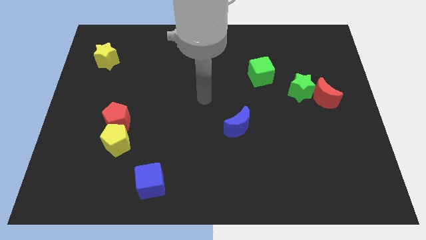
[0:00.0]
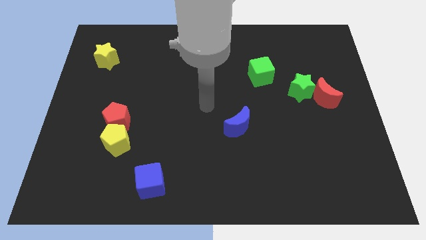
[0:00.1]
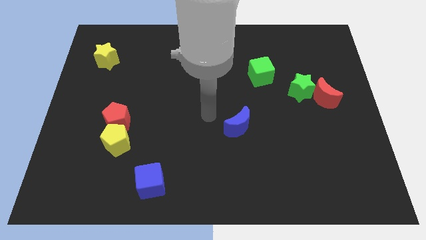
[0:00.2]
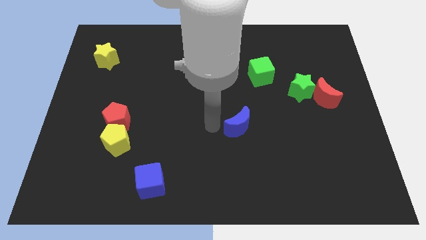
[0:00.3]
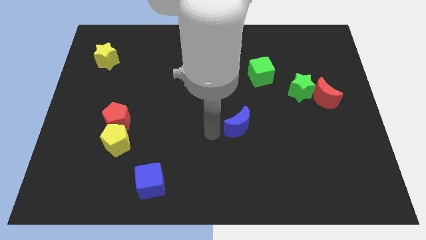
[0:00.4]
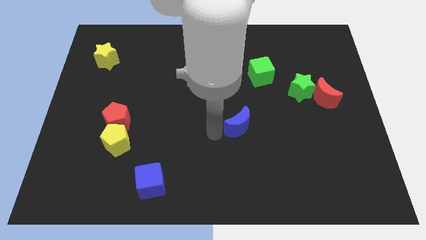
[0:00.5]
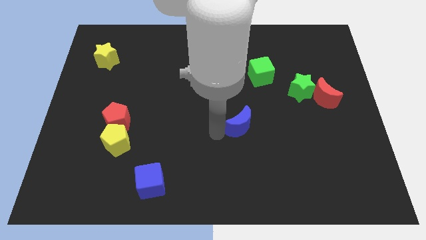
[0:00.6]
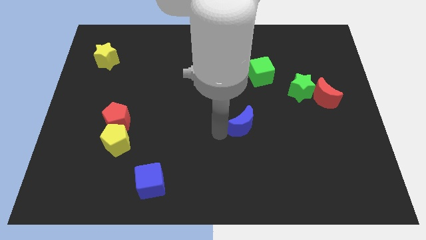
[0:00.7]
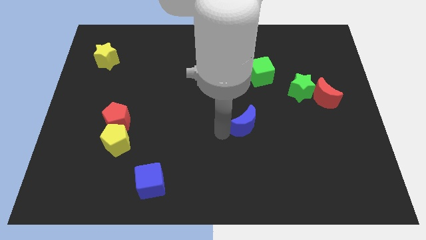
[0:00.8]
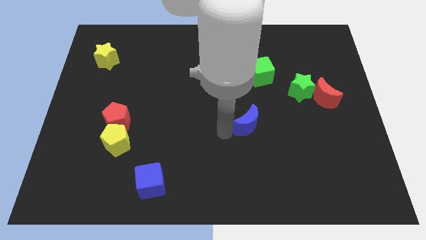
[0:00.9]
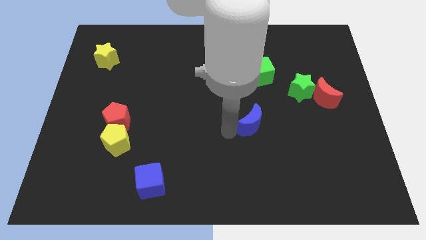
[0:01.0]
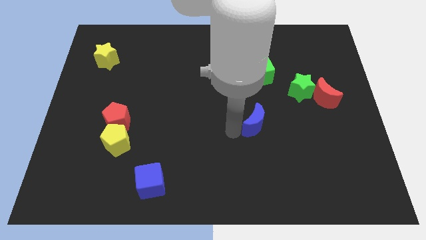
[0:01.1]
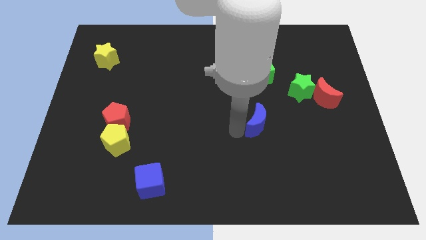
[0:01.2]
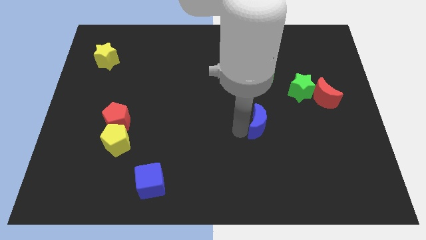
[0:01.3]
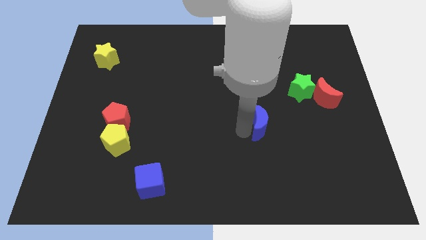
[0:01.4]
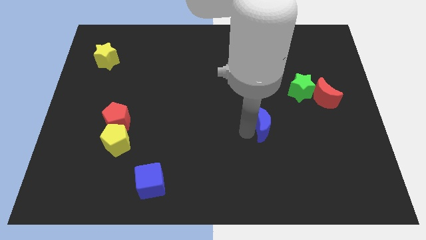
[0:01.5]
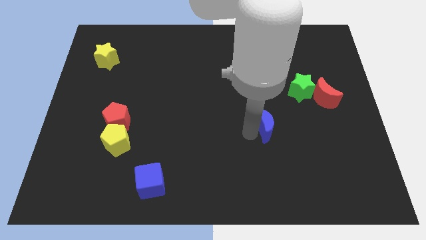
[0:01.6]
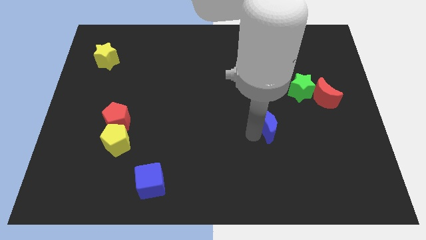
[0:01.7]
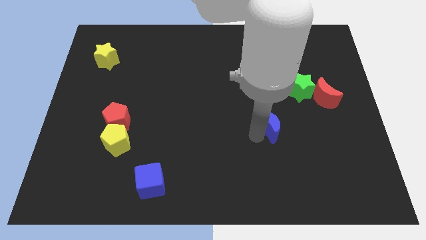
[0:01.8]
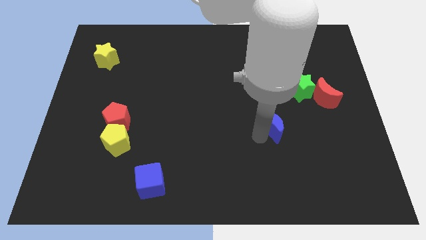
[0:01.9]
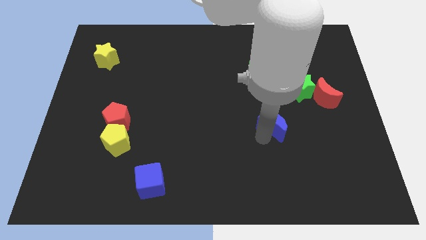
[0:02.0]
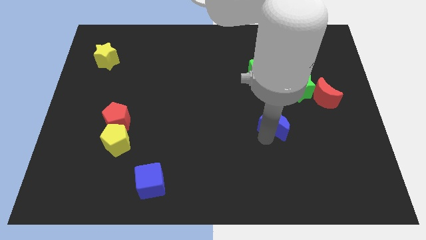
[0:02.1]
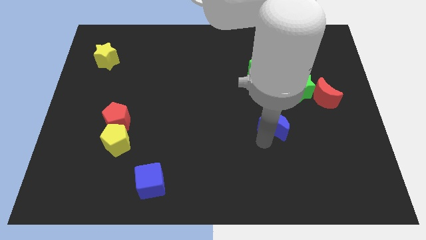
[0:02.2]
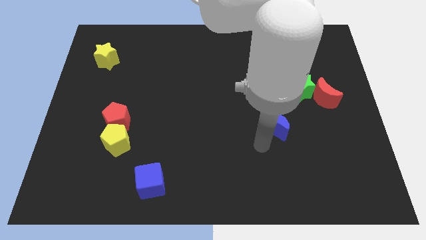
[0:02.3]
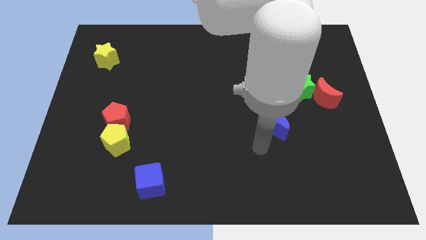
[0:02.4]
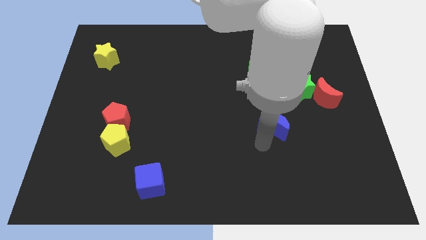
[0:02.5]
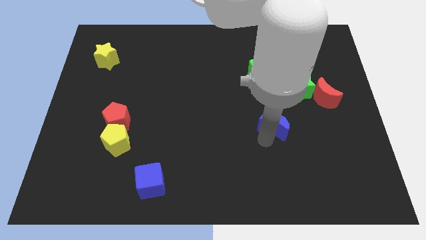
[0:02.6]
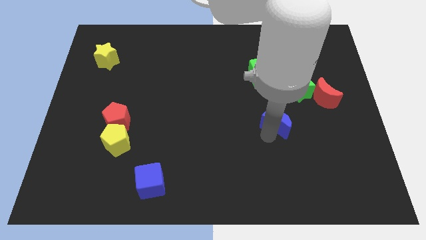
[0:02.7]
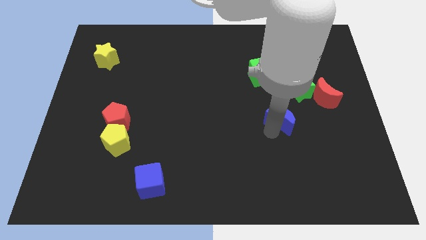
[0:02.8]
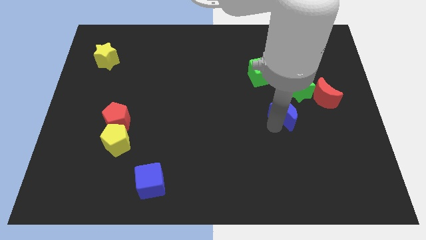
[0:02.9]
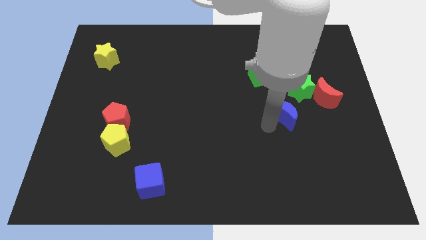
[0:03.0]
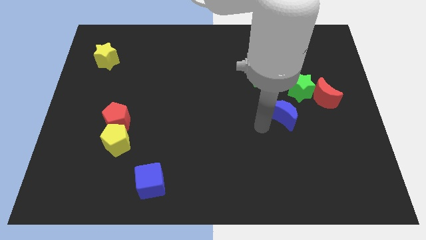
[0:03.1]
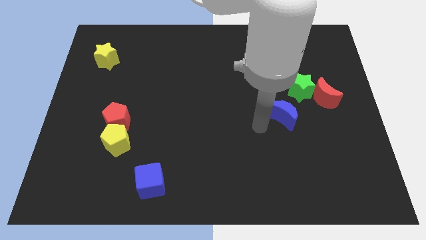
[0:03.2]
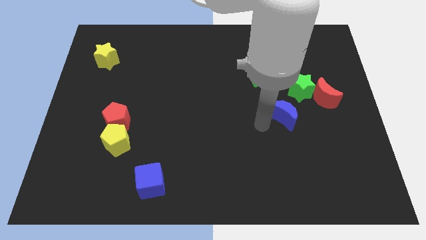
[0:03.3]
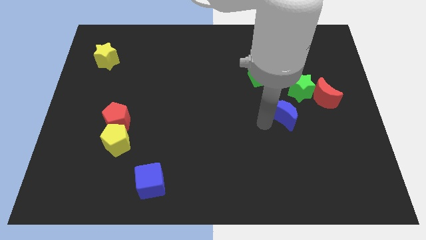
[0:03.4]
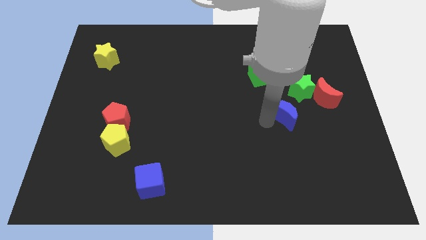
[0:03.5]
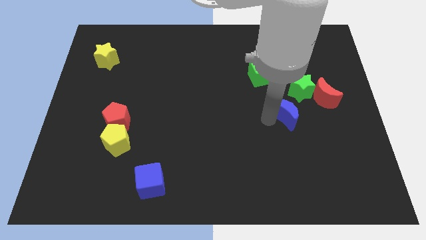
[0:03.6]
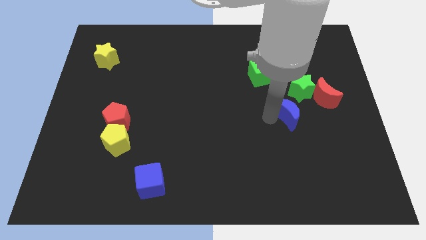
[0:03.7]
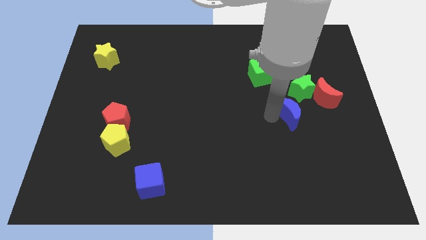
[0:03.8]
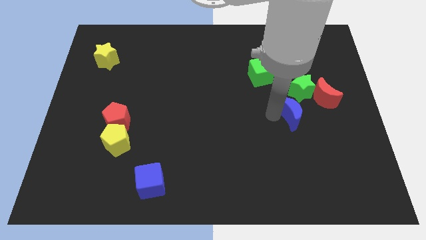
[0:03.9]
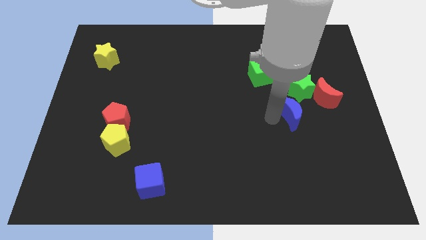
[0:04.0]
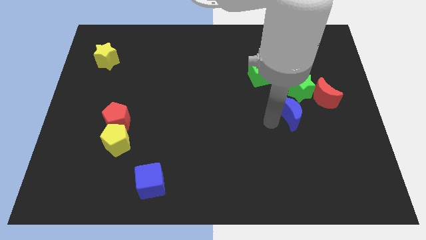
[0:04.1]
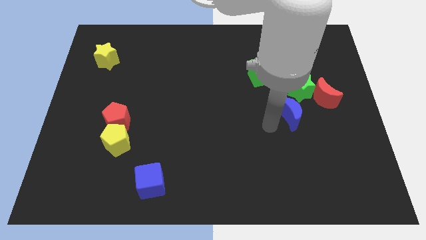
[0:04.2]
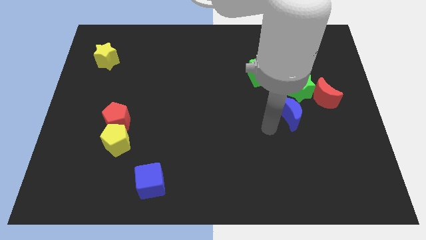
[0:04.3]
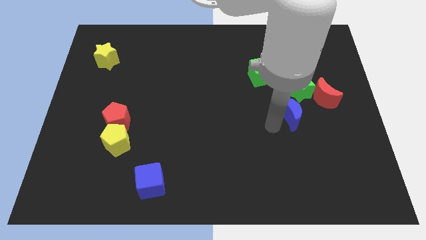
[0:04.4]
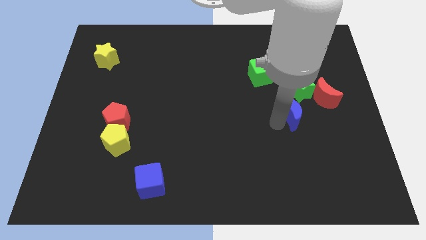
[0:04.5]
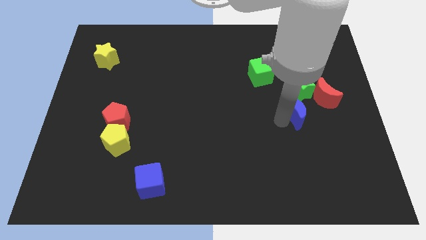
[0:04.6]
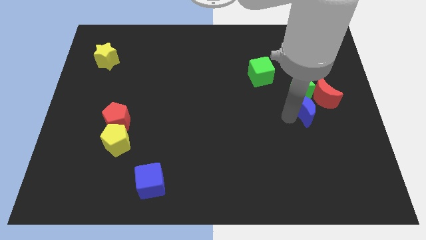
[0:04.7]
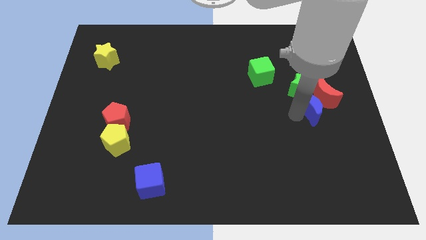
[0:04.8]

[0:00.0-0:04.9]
push the blue moon towards the red moon

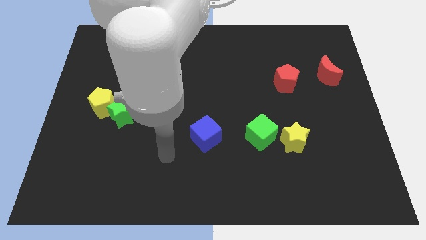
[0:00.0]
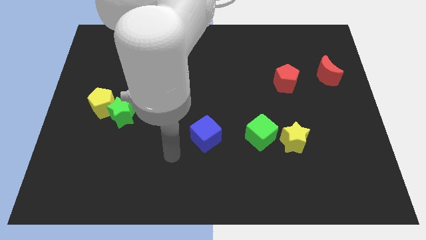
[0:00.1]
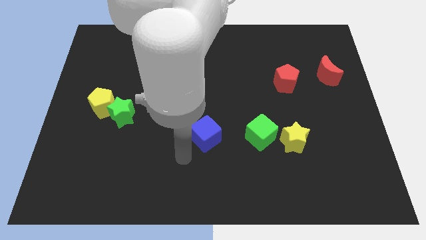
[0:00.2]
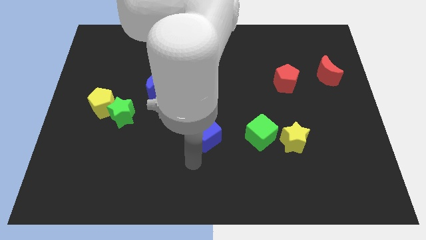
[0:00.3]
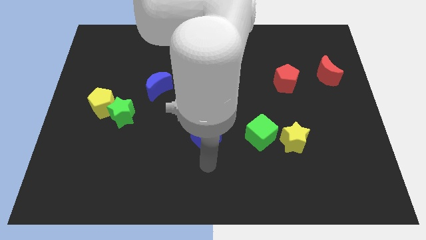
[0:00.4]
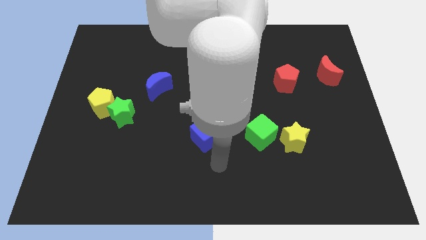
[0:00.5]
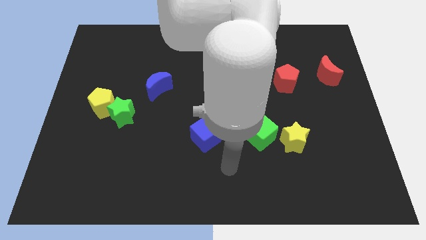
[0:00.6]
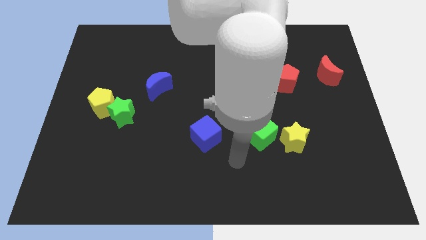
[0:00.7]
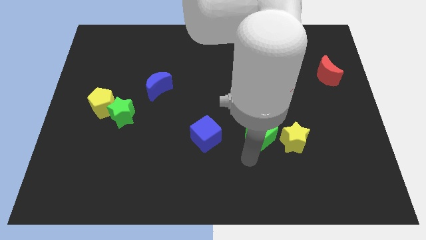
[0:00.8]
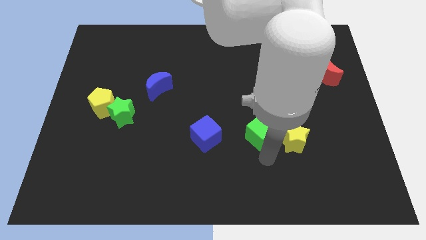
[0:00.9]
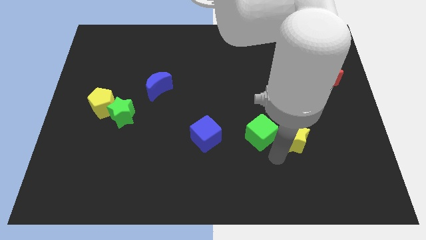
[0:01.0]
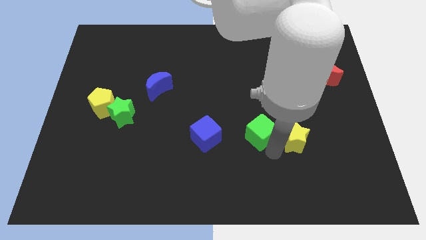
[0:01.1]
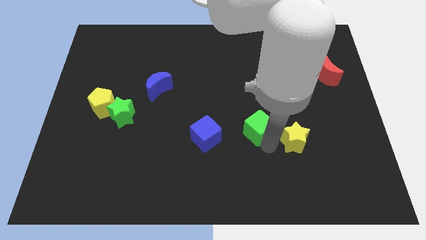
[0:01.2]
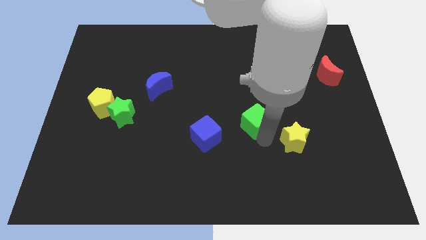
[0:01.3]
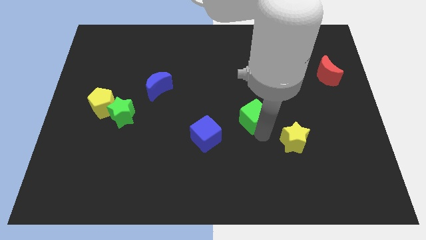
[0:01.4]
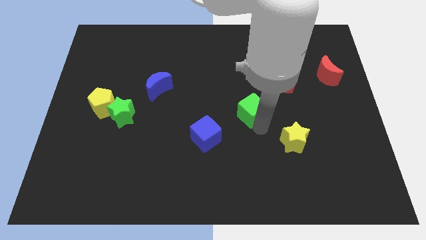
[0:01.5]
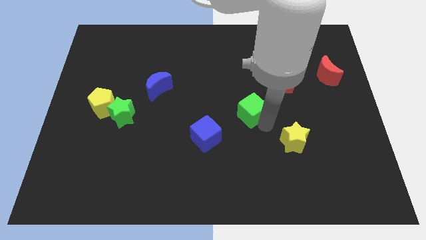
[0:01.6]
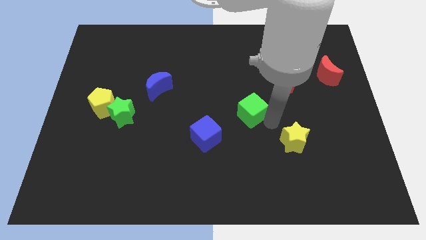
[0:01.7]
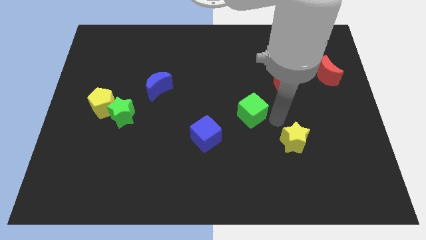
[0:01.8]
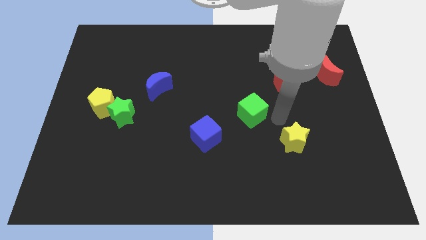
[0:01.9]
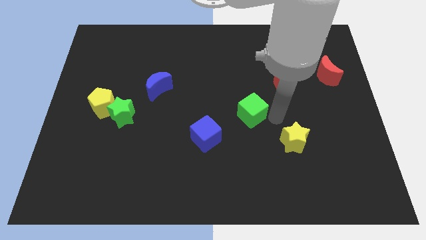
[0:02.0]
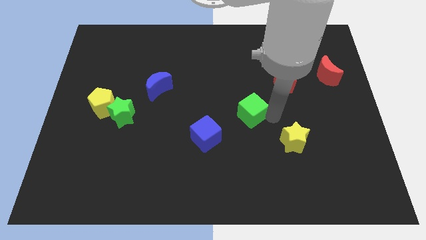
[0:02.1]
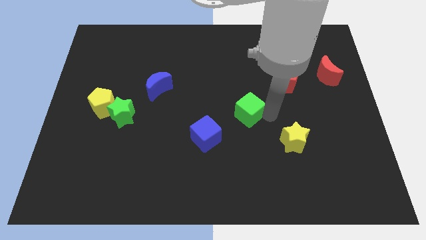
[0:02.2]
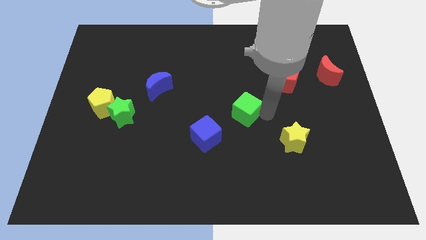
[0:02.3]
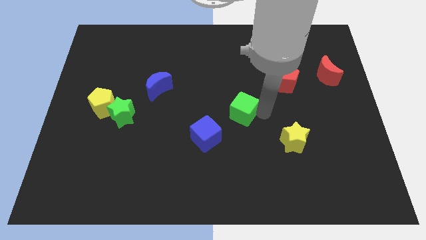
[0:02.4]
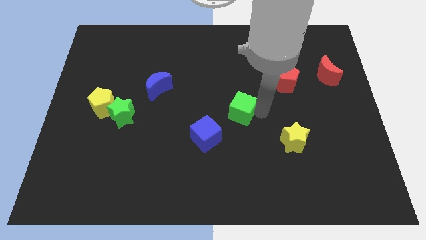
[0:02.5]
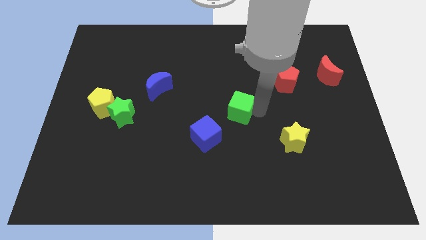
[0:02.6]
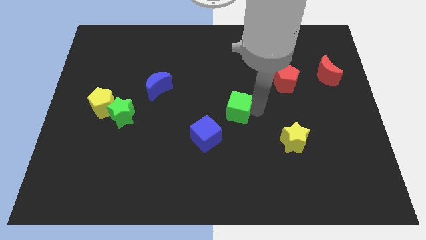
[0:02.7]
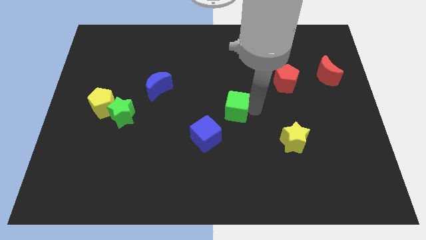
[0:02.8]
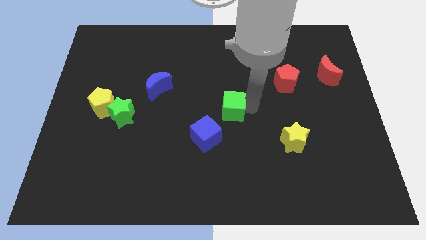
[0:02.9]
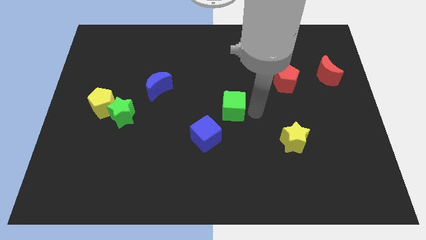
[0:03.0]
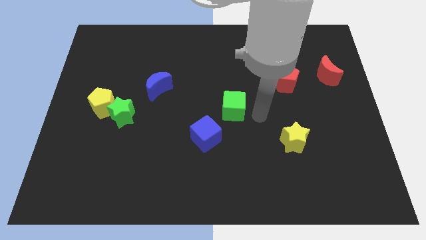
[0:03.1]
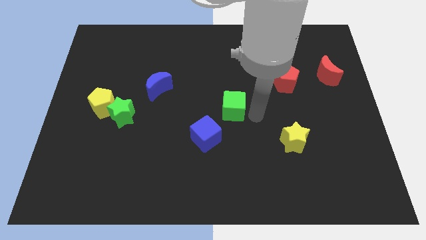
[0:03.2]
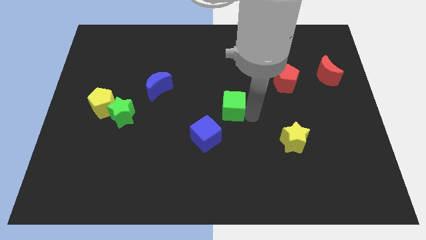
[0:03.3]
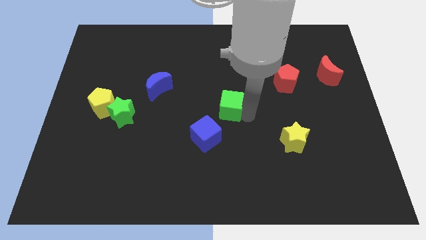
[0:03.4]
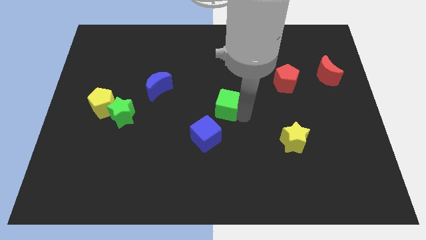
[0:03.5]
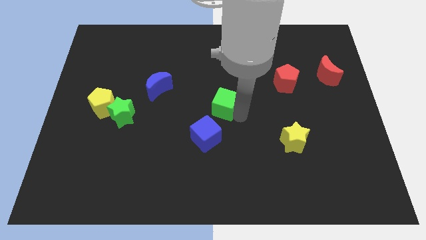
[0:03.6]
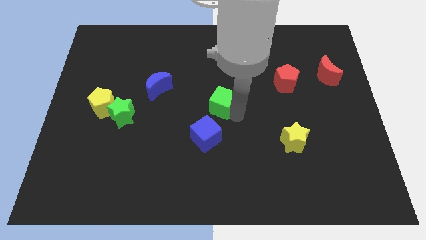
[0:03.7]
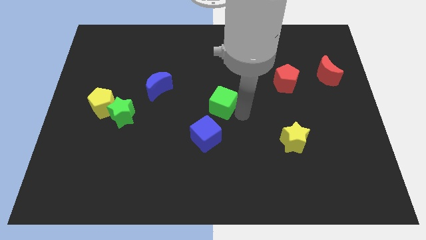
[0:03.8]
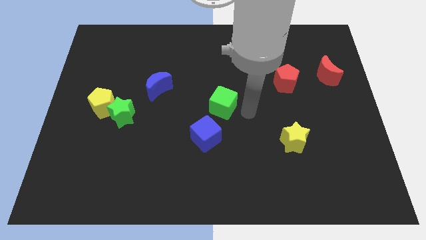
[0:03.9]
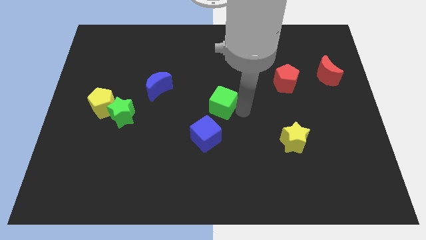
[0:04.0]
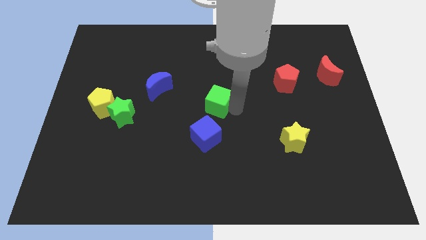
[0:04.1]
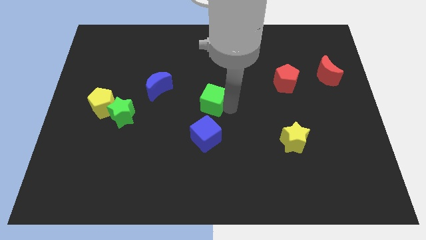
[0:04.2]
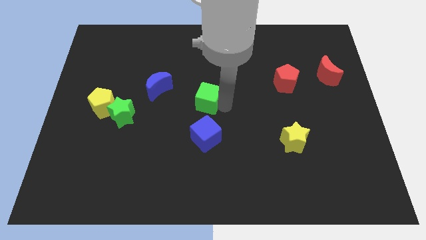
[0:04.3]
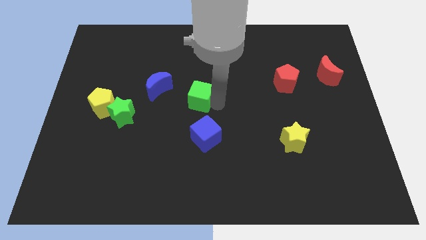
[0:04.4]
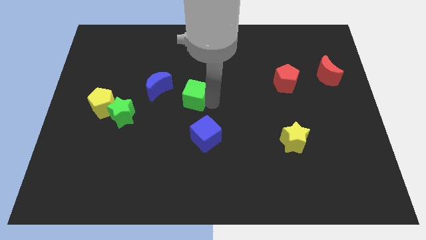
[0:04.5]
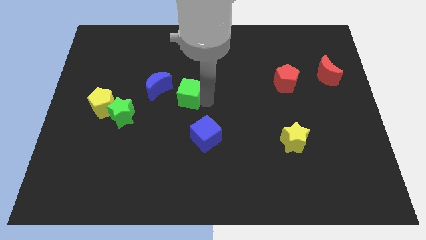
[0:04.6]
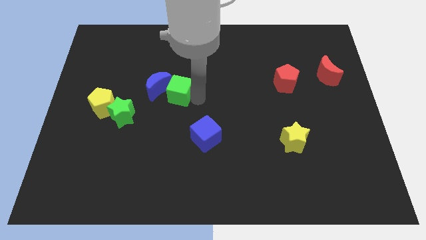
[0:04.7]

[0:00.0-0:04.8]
push the green cube to the blue moon
